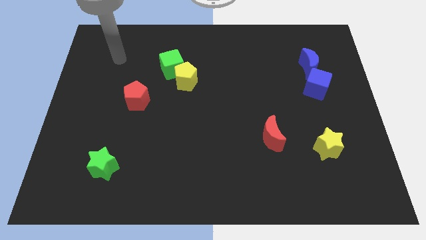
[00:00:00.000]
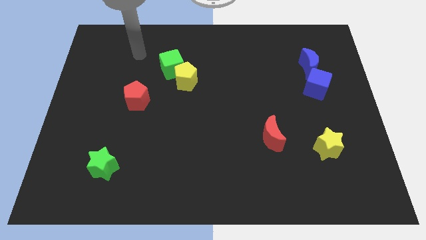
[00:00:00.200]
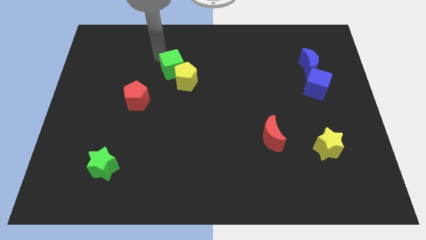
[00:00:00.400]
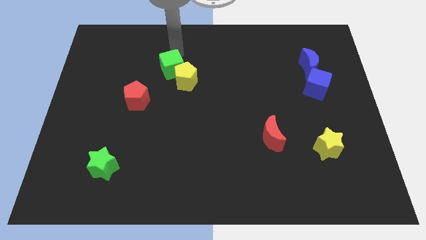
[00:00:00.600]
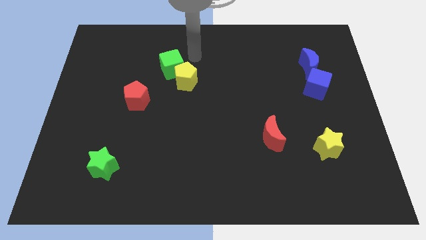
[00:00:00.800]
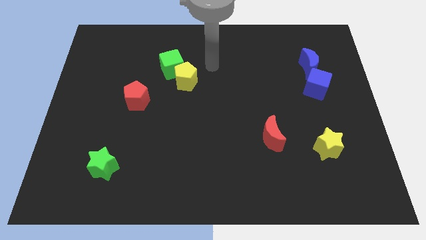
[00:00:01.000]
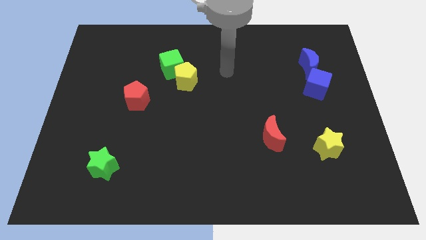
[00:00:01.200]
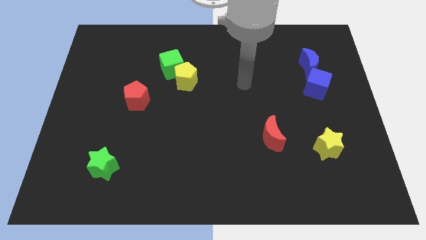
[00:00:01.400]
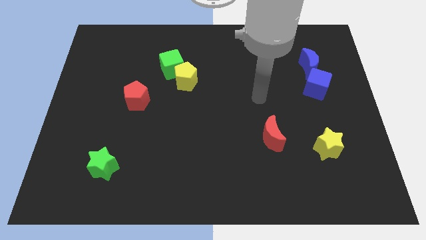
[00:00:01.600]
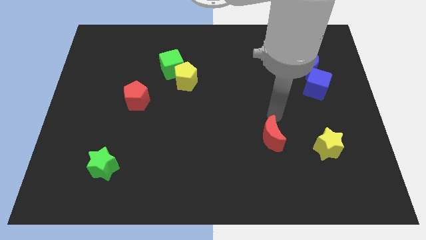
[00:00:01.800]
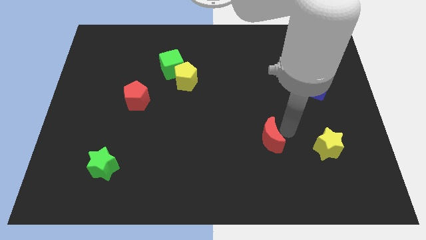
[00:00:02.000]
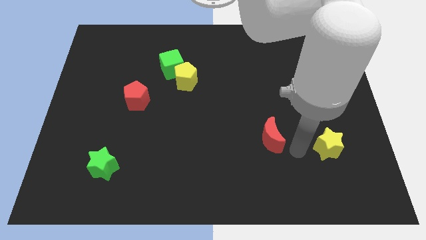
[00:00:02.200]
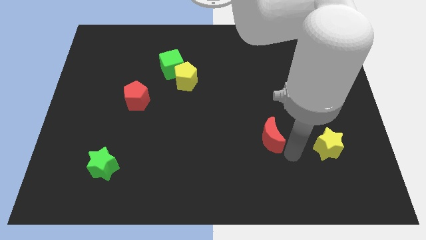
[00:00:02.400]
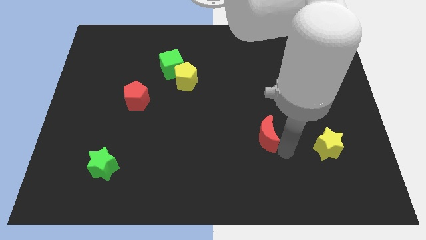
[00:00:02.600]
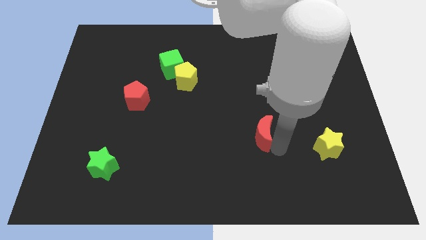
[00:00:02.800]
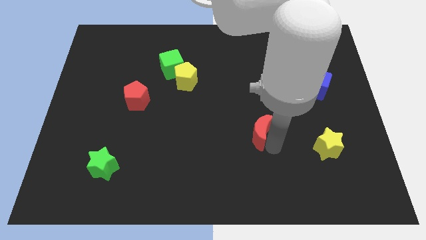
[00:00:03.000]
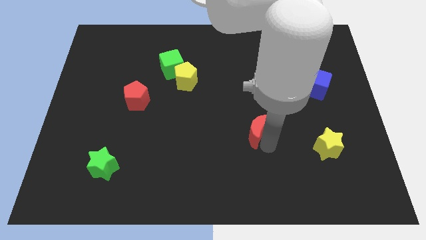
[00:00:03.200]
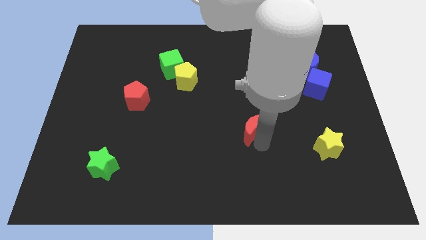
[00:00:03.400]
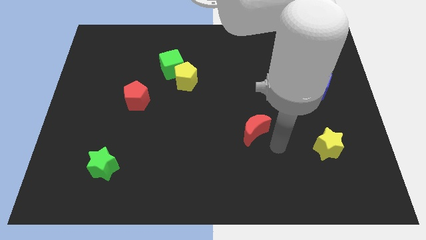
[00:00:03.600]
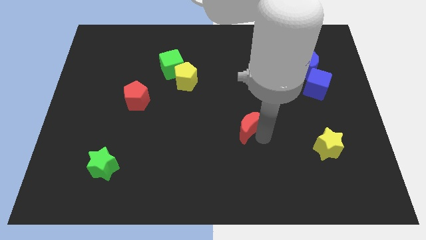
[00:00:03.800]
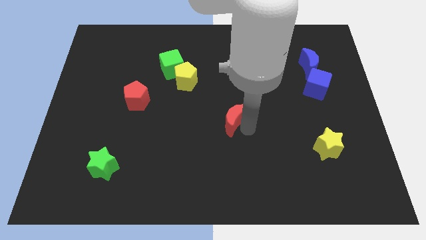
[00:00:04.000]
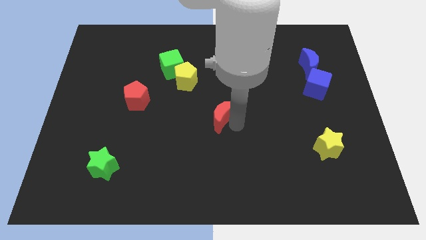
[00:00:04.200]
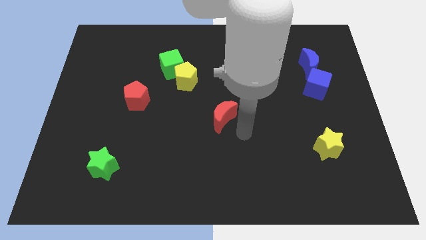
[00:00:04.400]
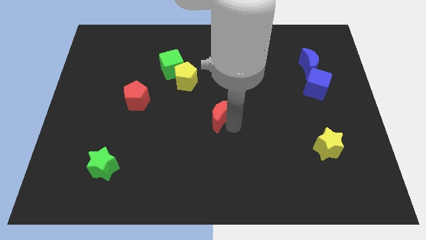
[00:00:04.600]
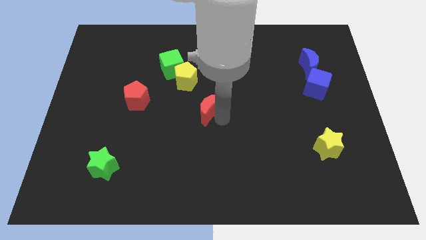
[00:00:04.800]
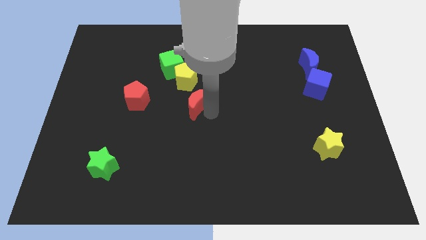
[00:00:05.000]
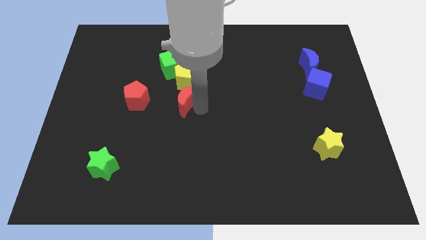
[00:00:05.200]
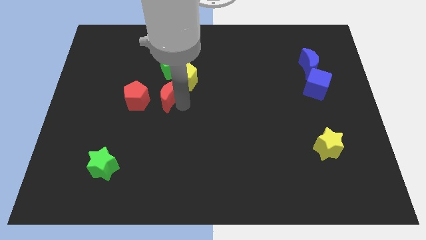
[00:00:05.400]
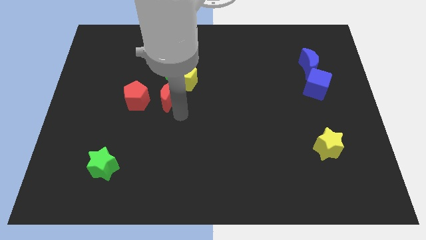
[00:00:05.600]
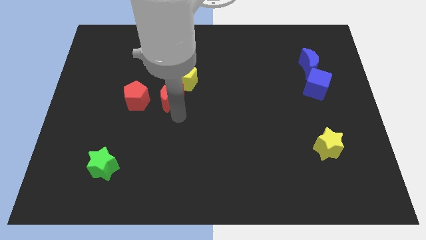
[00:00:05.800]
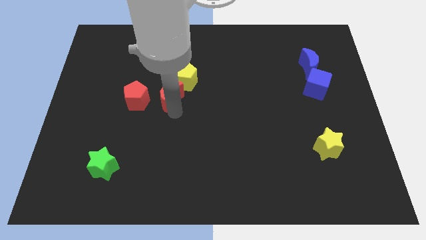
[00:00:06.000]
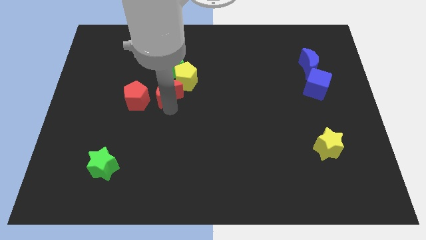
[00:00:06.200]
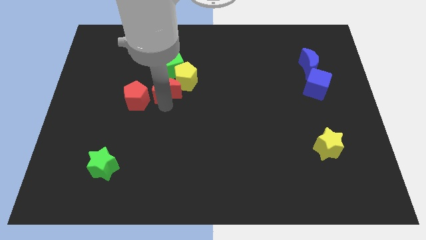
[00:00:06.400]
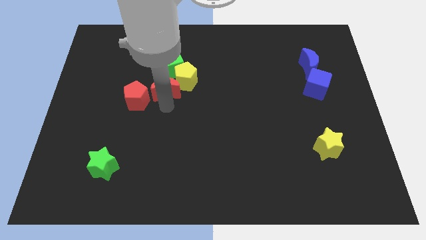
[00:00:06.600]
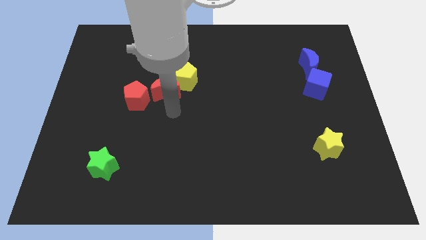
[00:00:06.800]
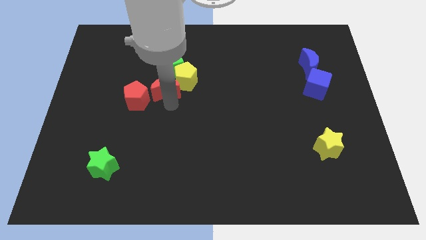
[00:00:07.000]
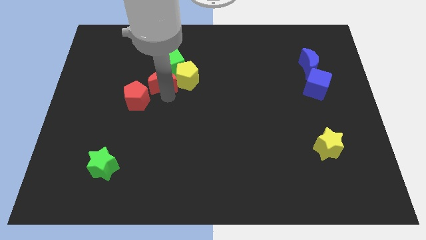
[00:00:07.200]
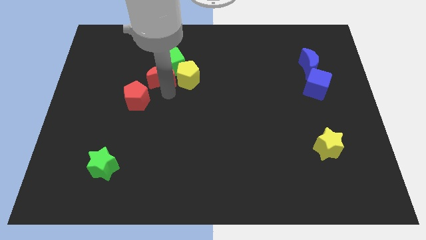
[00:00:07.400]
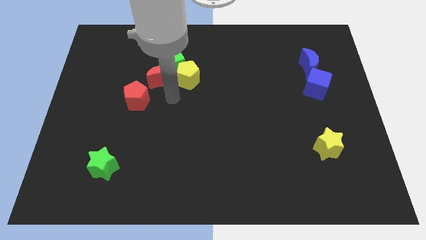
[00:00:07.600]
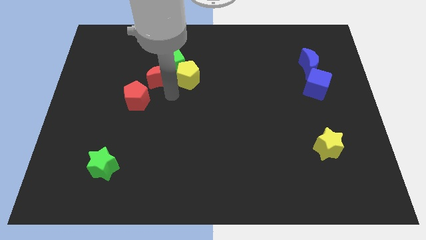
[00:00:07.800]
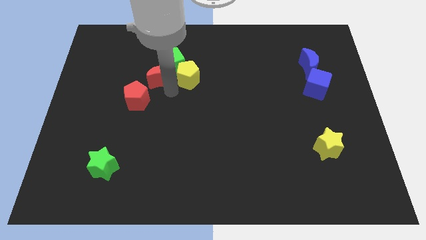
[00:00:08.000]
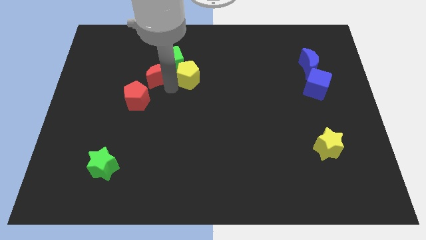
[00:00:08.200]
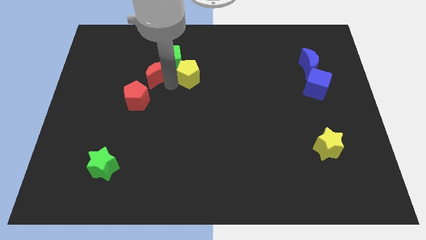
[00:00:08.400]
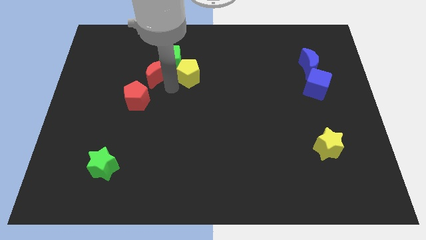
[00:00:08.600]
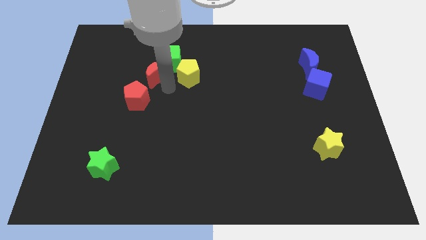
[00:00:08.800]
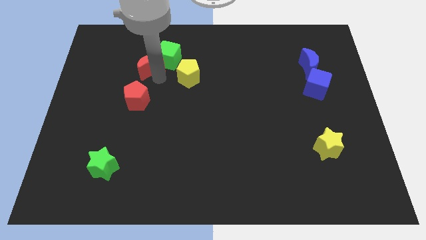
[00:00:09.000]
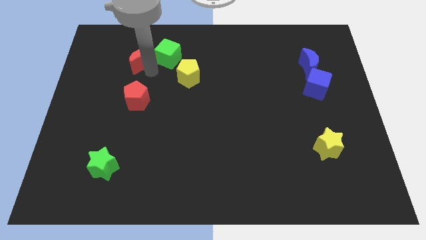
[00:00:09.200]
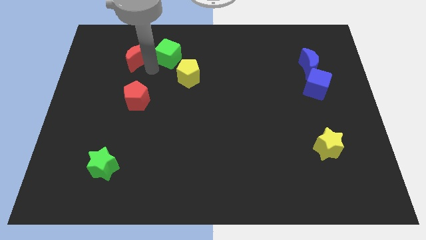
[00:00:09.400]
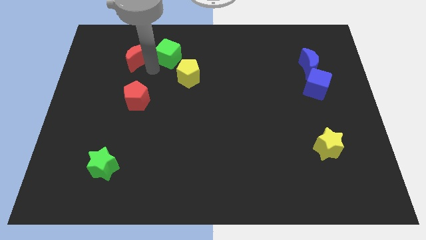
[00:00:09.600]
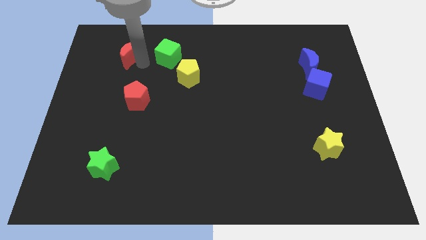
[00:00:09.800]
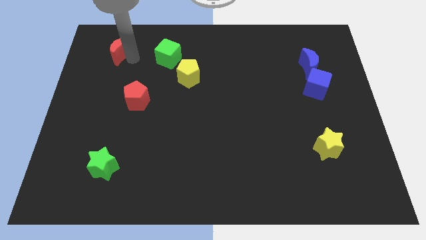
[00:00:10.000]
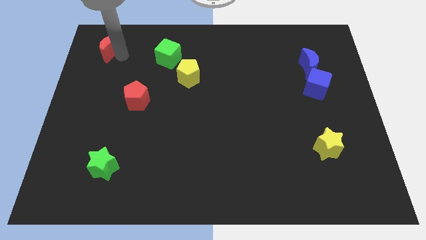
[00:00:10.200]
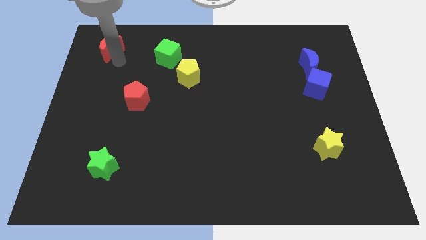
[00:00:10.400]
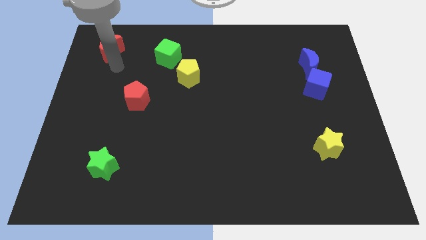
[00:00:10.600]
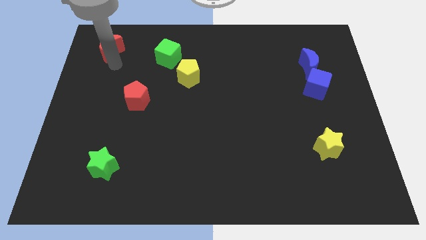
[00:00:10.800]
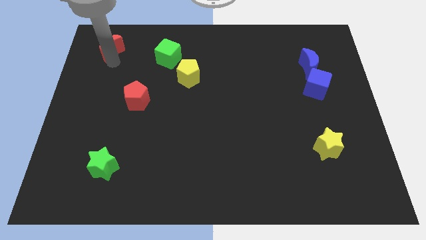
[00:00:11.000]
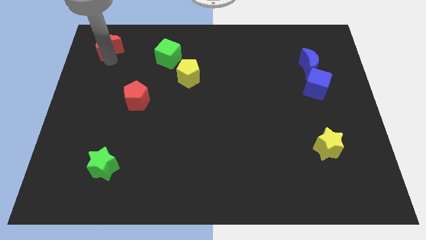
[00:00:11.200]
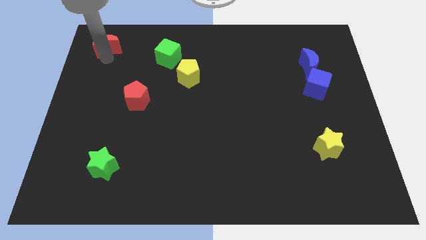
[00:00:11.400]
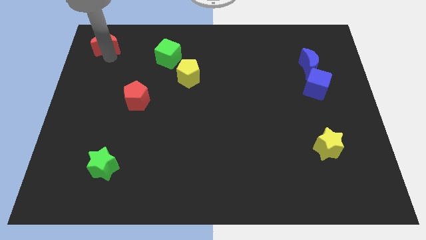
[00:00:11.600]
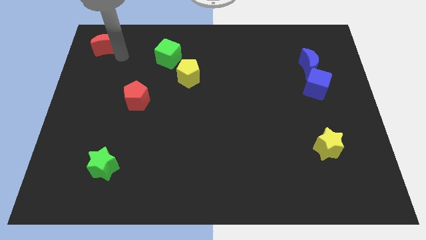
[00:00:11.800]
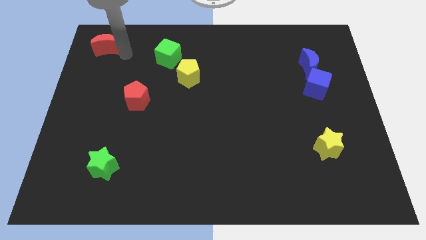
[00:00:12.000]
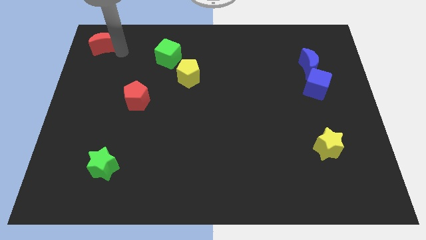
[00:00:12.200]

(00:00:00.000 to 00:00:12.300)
put the red moon to the top left of the board

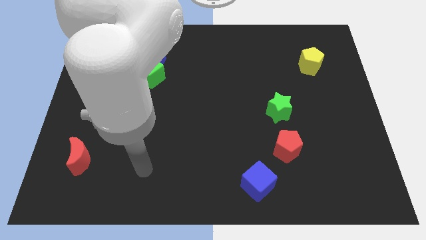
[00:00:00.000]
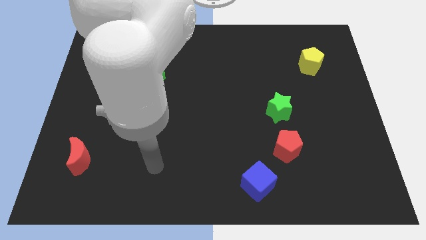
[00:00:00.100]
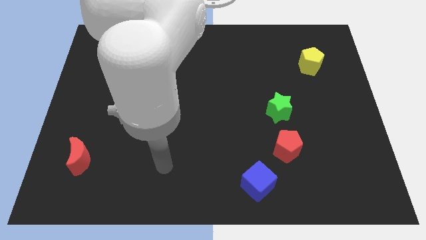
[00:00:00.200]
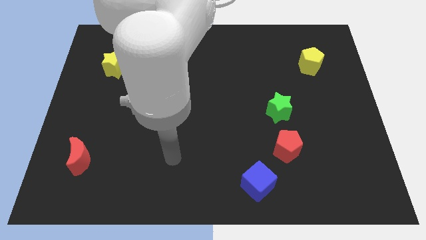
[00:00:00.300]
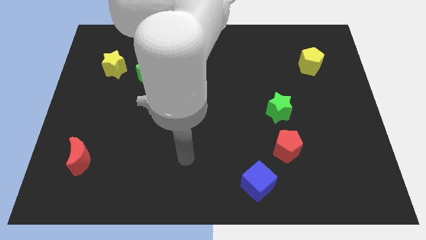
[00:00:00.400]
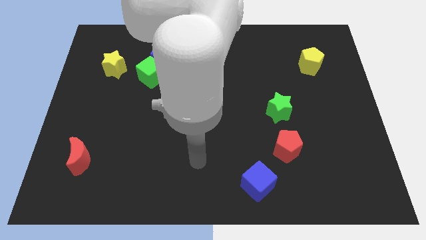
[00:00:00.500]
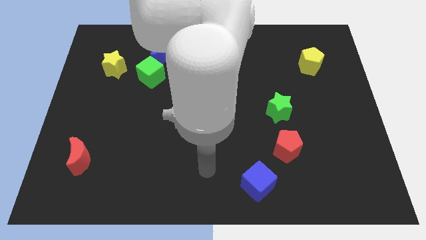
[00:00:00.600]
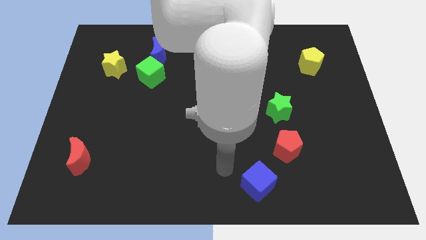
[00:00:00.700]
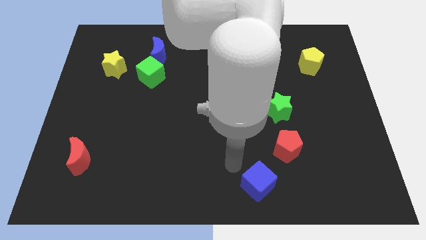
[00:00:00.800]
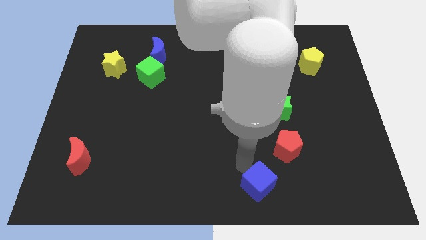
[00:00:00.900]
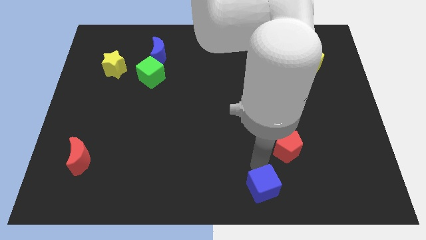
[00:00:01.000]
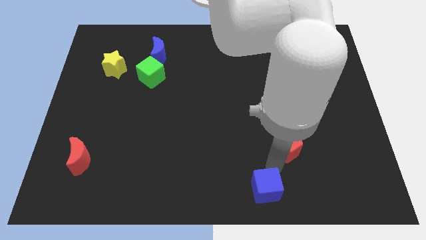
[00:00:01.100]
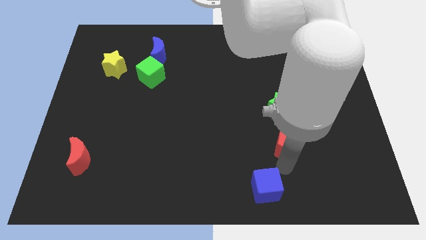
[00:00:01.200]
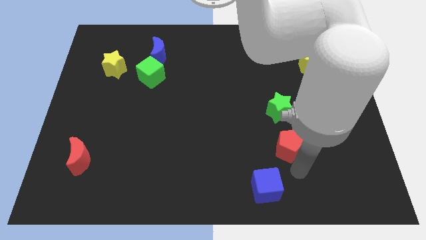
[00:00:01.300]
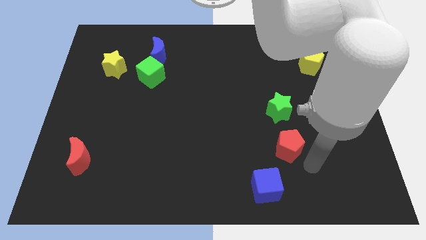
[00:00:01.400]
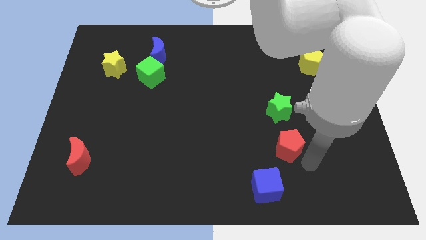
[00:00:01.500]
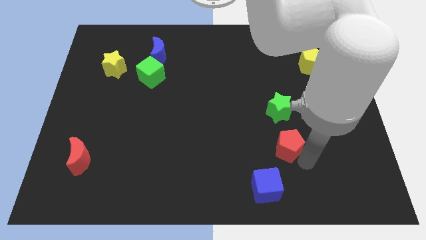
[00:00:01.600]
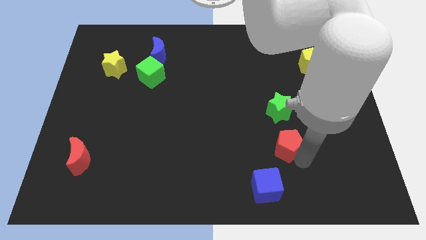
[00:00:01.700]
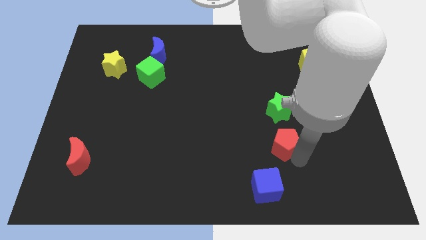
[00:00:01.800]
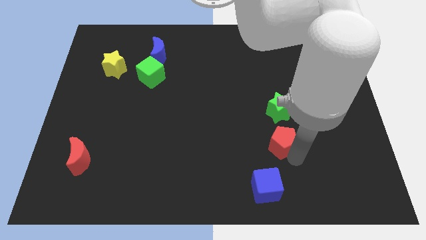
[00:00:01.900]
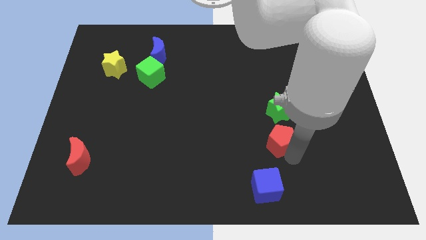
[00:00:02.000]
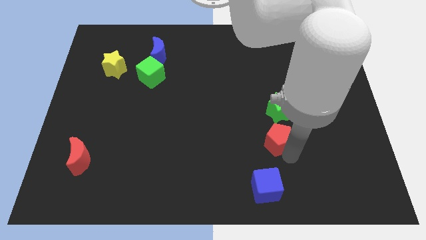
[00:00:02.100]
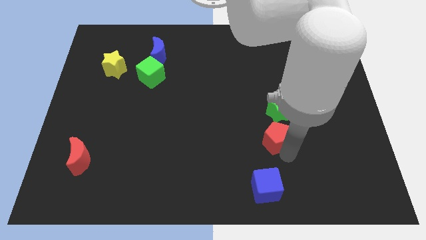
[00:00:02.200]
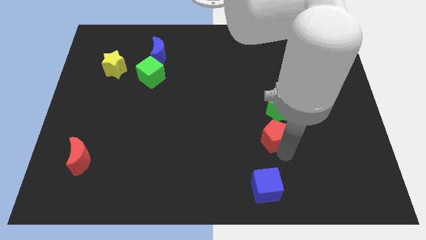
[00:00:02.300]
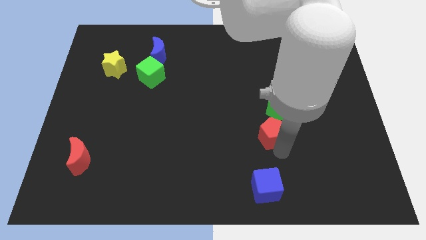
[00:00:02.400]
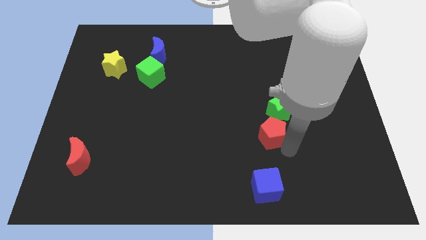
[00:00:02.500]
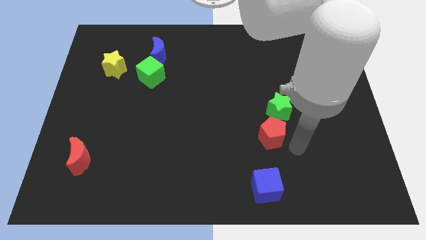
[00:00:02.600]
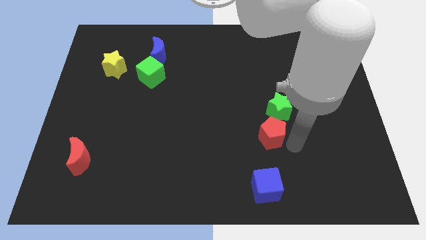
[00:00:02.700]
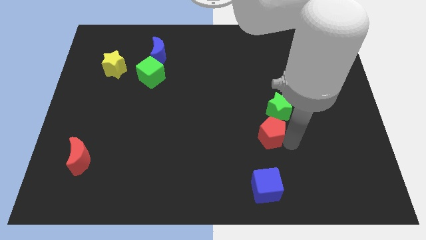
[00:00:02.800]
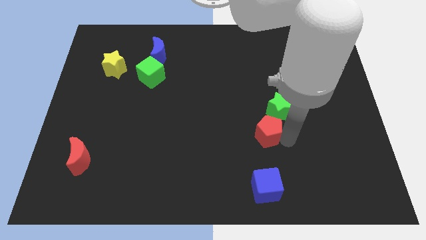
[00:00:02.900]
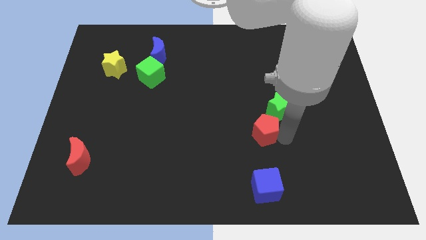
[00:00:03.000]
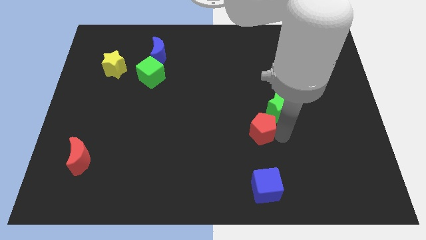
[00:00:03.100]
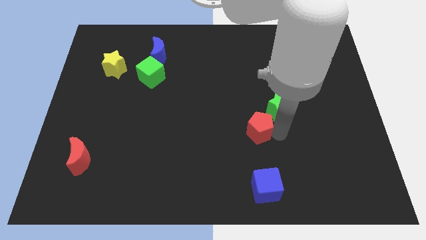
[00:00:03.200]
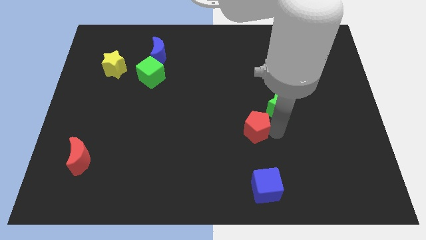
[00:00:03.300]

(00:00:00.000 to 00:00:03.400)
put the red pentagon to the center
